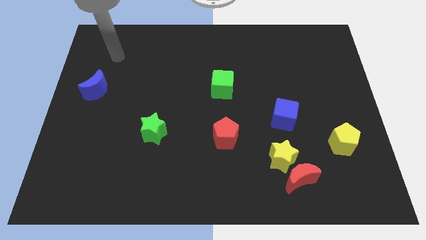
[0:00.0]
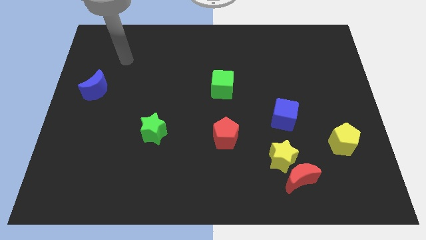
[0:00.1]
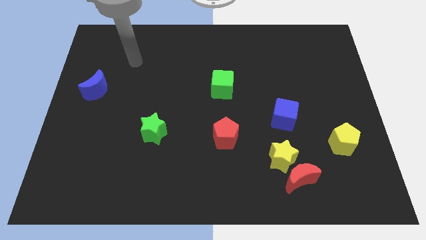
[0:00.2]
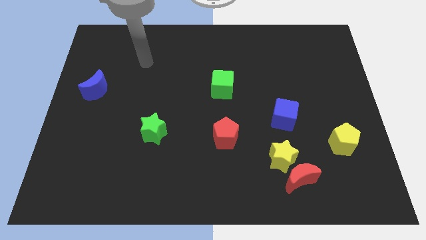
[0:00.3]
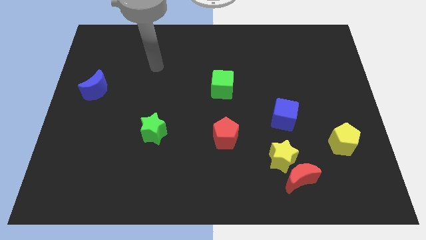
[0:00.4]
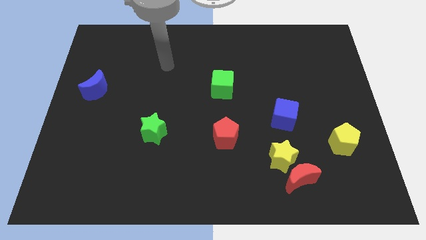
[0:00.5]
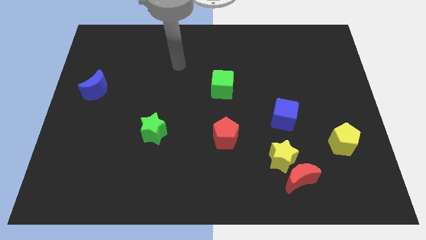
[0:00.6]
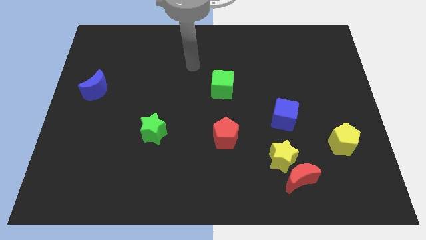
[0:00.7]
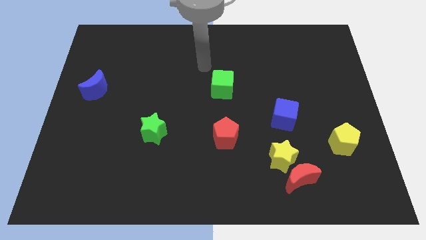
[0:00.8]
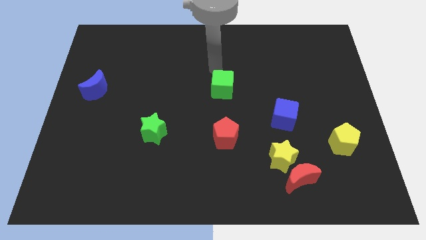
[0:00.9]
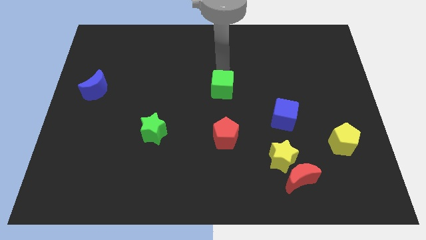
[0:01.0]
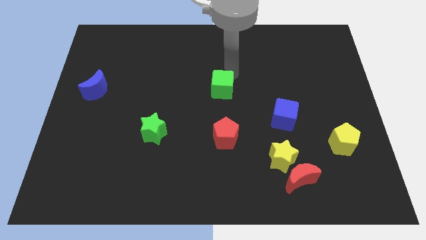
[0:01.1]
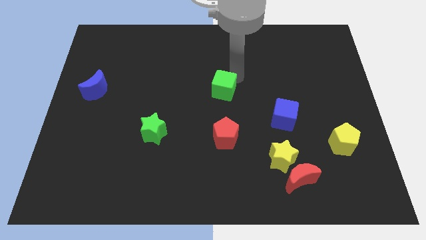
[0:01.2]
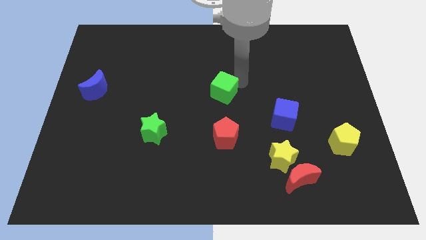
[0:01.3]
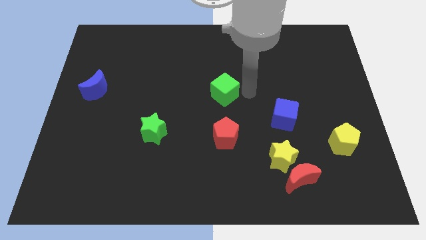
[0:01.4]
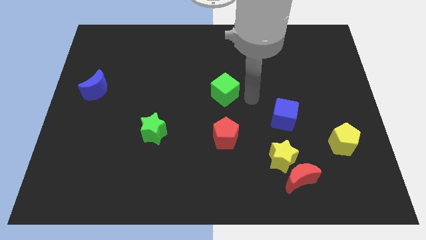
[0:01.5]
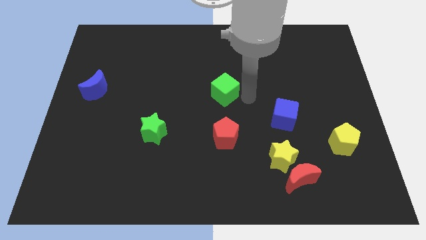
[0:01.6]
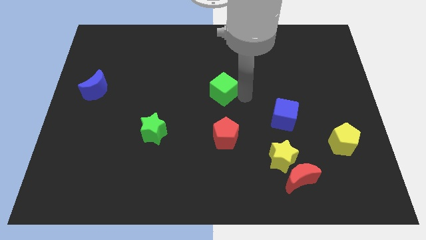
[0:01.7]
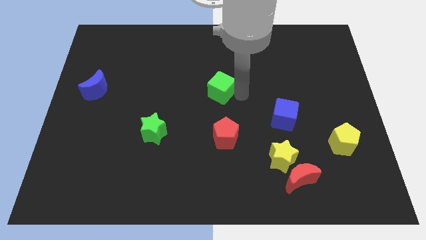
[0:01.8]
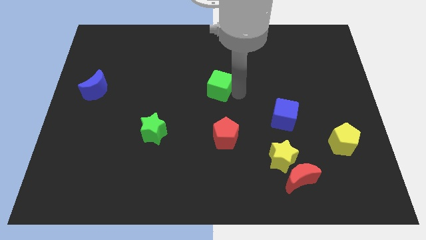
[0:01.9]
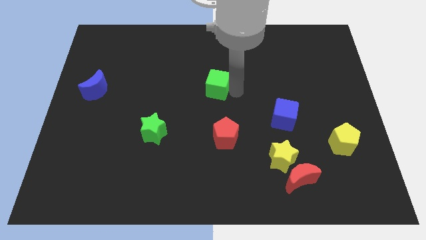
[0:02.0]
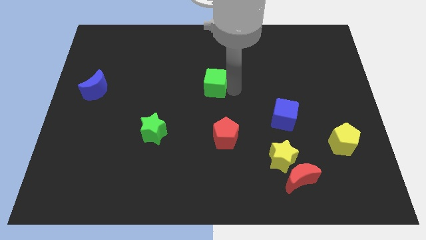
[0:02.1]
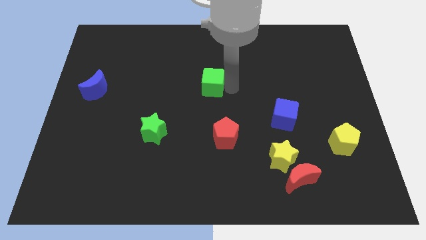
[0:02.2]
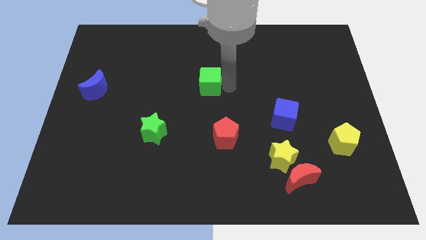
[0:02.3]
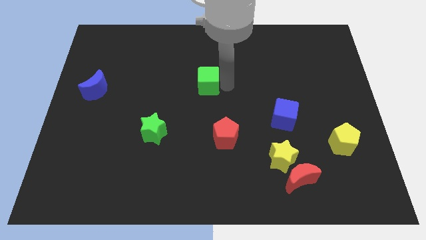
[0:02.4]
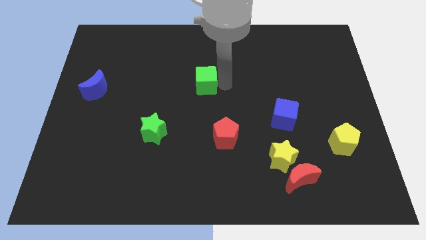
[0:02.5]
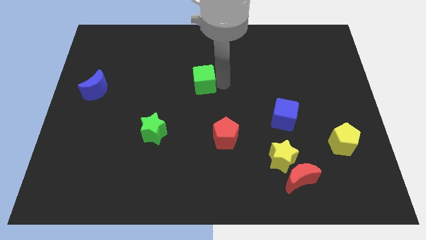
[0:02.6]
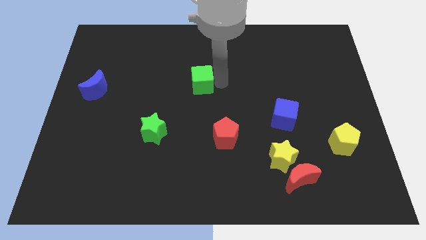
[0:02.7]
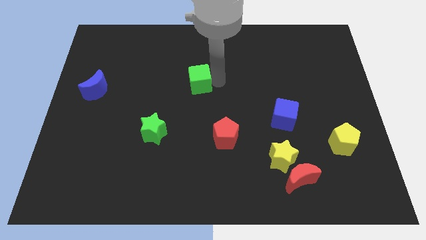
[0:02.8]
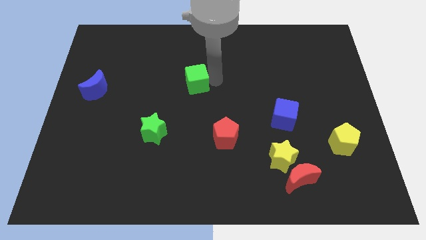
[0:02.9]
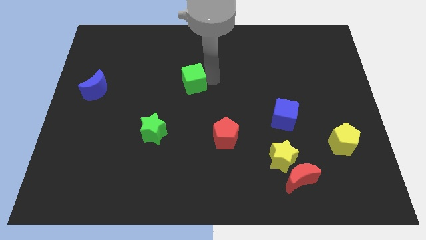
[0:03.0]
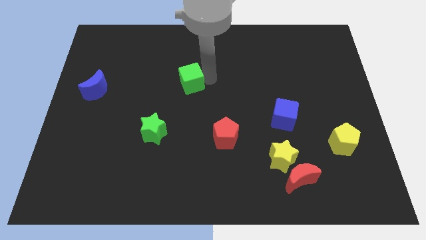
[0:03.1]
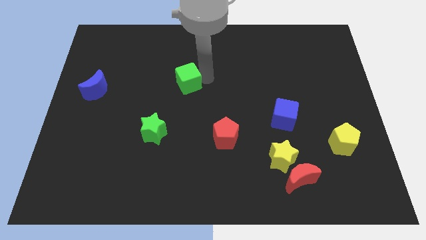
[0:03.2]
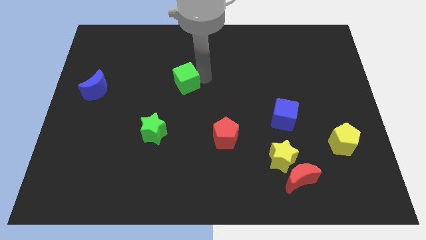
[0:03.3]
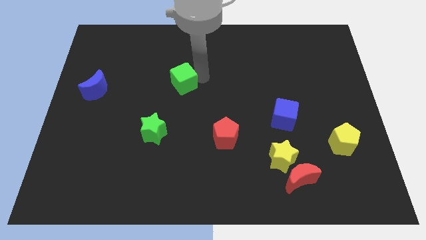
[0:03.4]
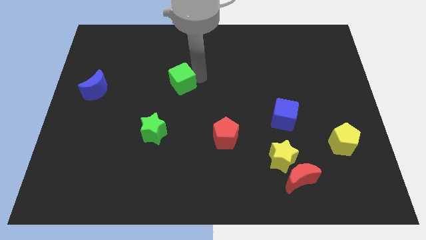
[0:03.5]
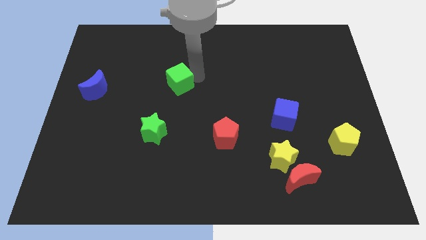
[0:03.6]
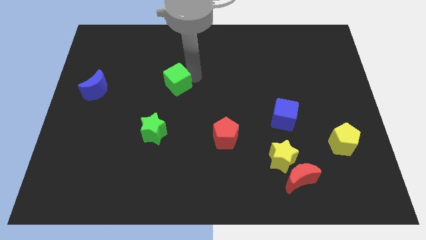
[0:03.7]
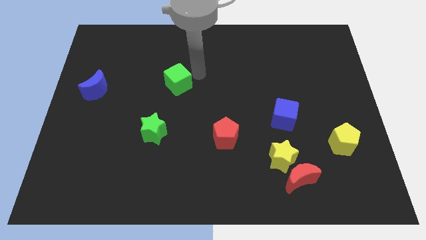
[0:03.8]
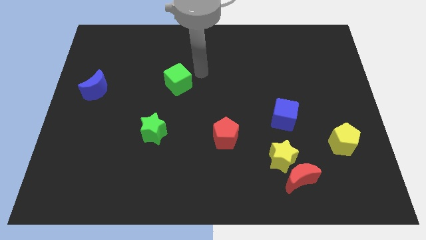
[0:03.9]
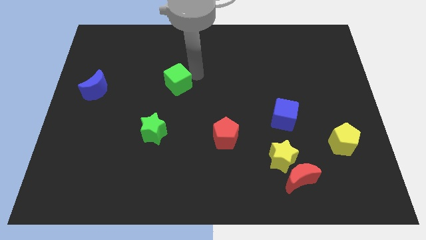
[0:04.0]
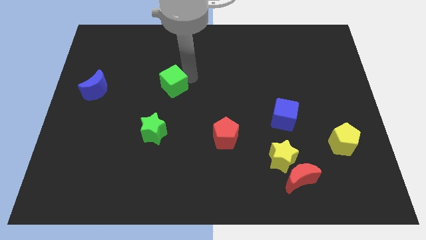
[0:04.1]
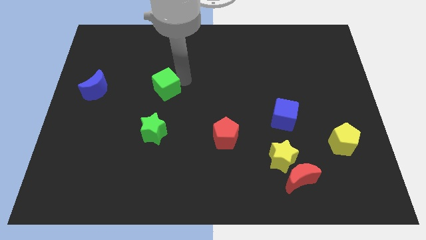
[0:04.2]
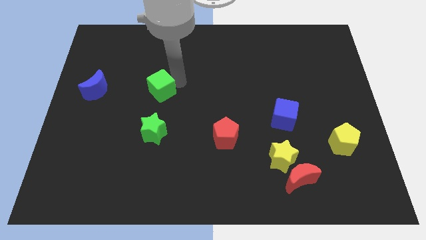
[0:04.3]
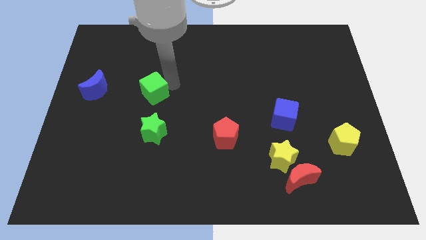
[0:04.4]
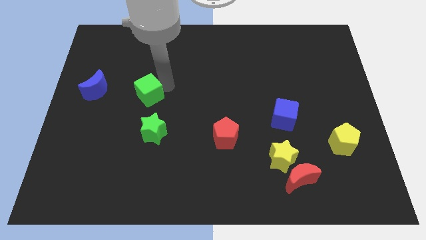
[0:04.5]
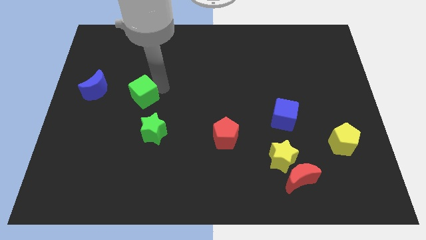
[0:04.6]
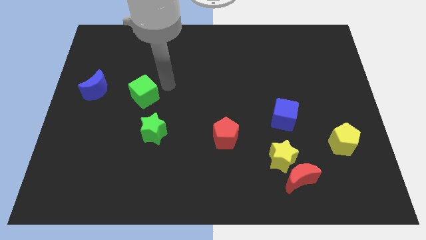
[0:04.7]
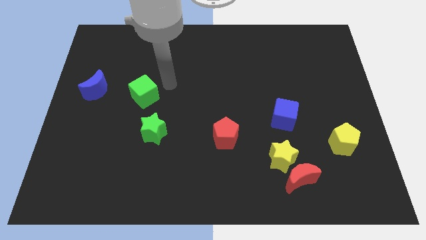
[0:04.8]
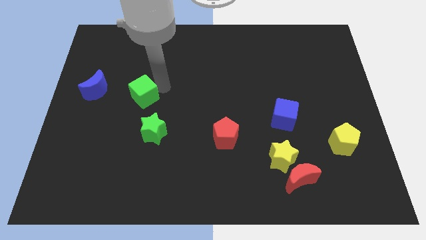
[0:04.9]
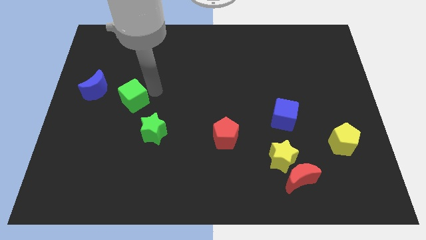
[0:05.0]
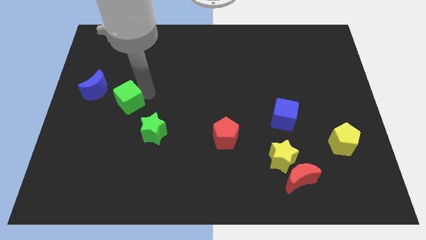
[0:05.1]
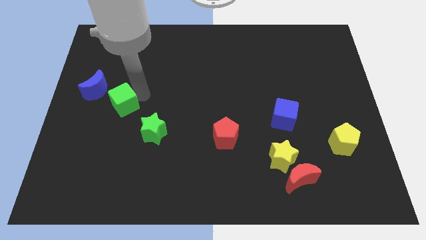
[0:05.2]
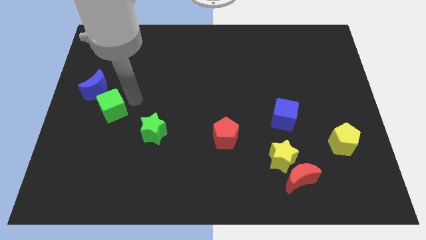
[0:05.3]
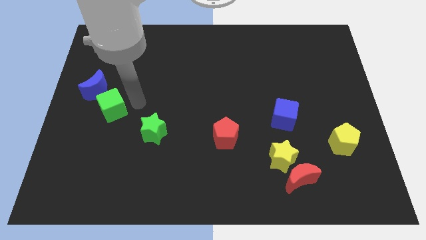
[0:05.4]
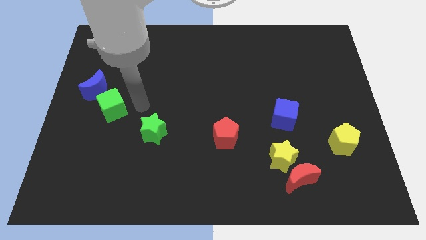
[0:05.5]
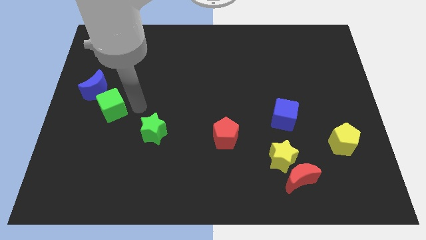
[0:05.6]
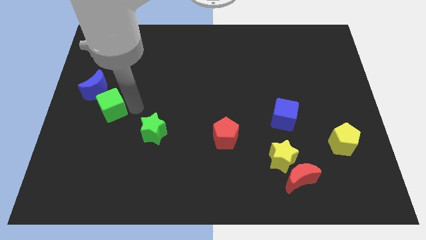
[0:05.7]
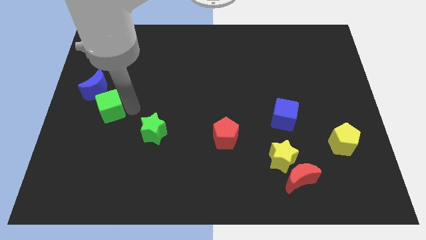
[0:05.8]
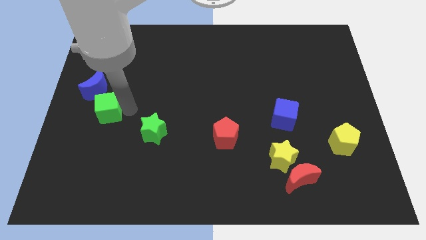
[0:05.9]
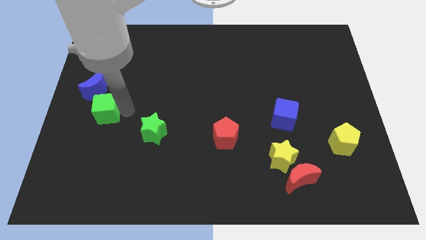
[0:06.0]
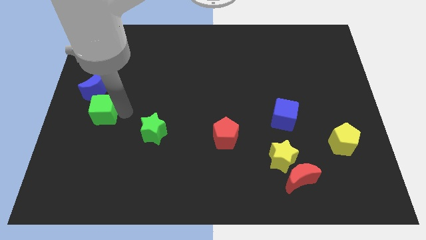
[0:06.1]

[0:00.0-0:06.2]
push the green cube to the left side of the board
